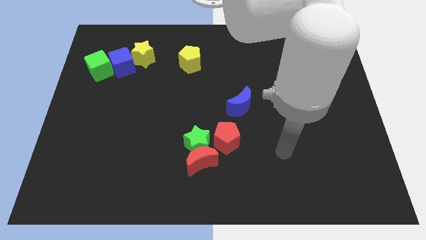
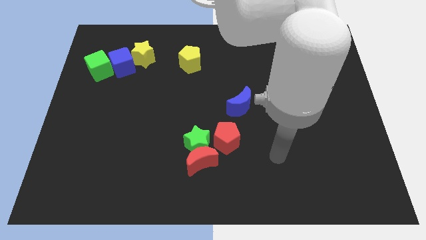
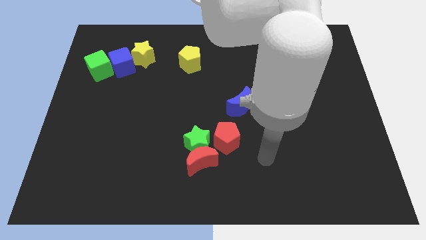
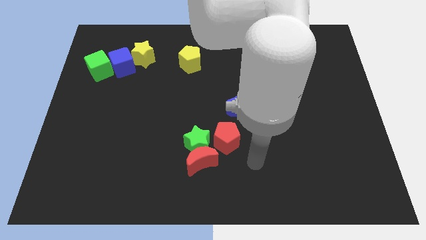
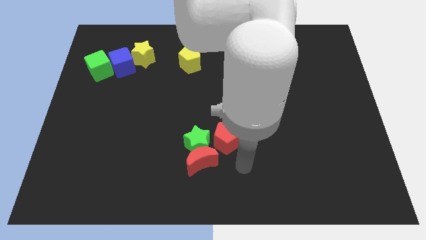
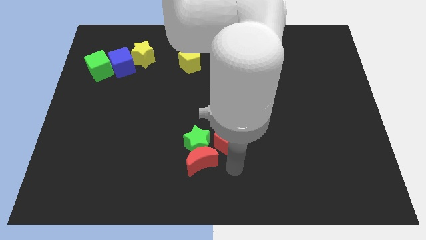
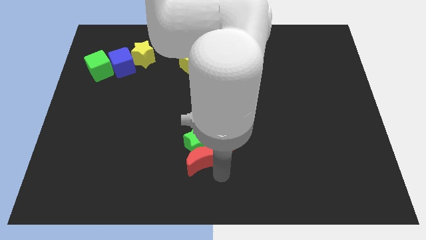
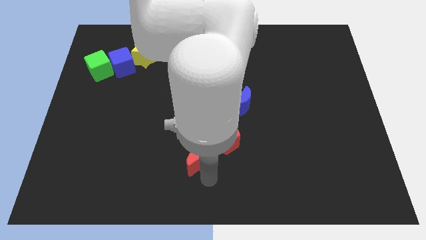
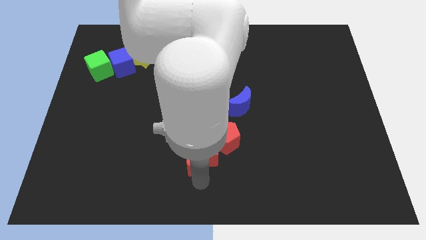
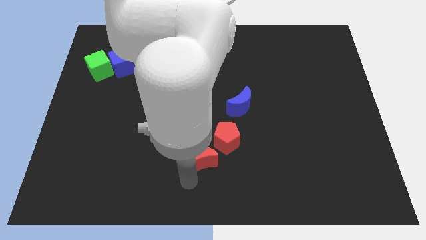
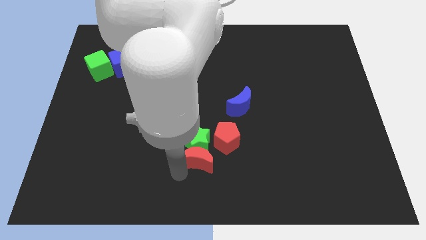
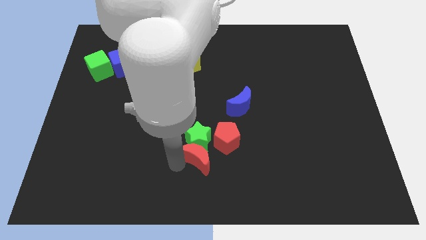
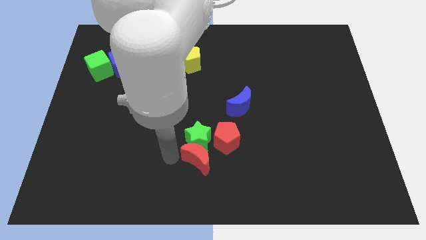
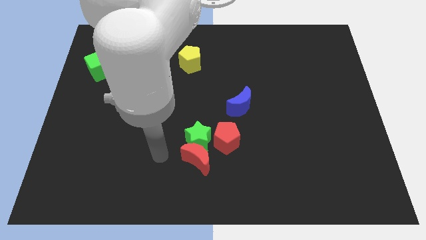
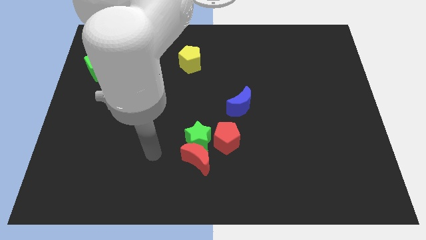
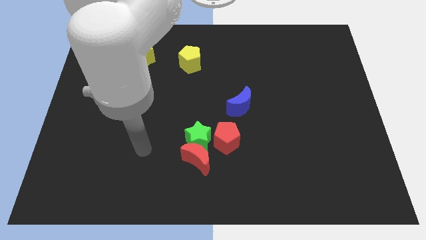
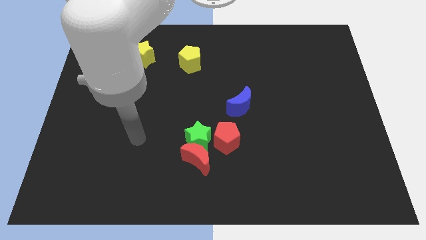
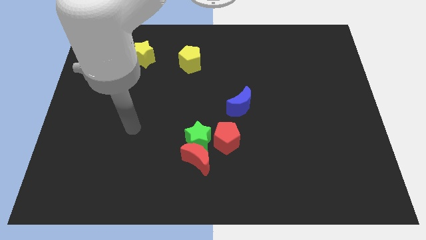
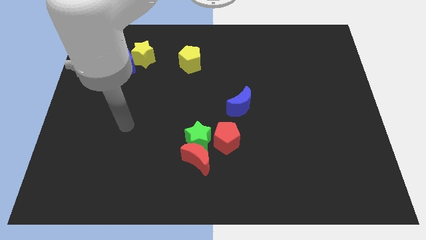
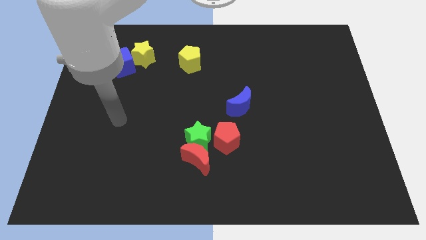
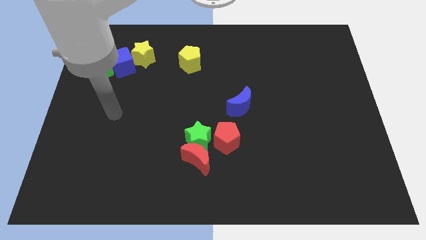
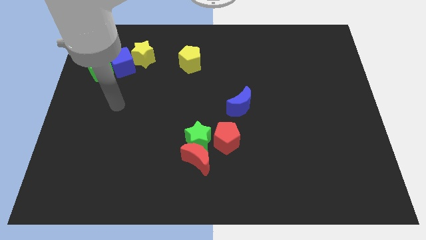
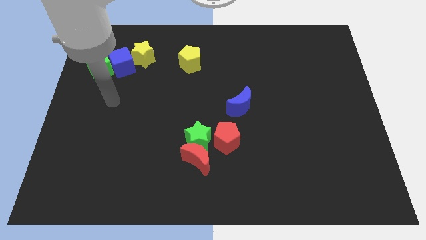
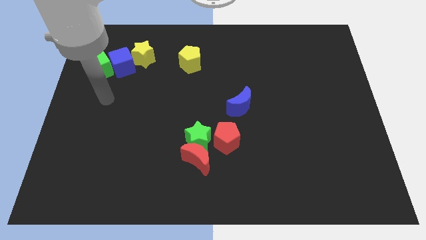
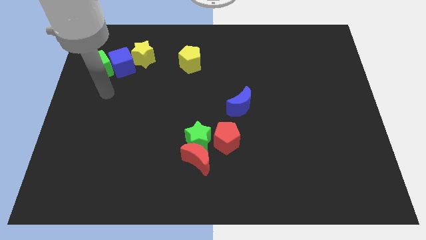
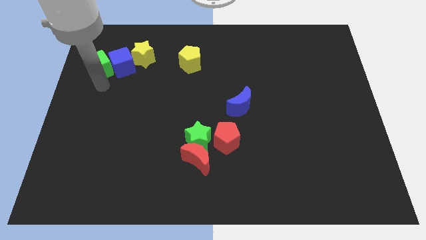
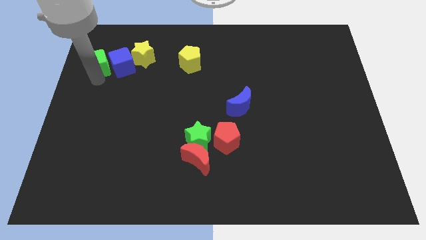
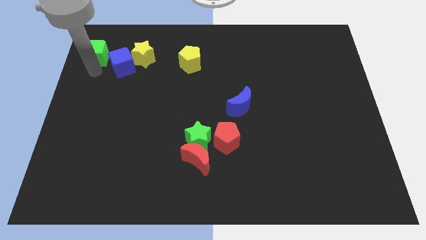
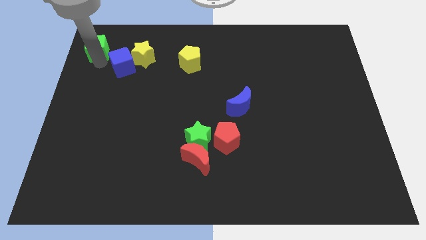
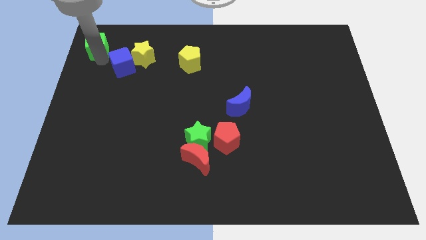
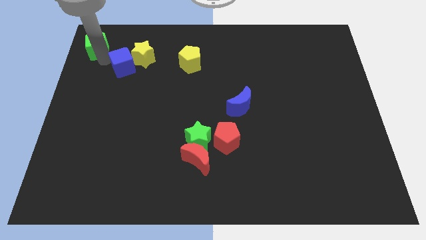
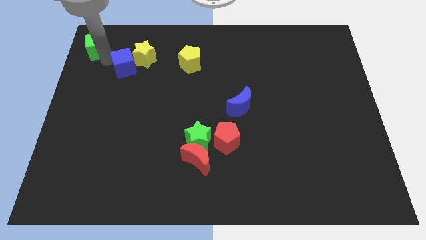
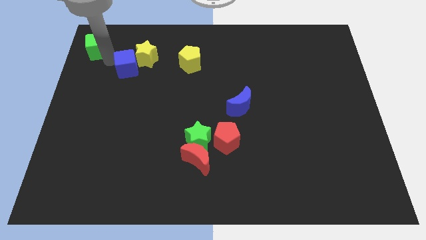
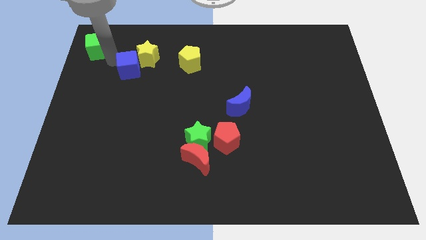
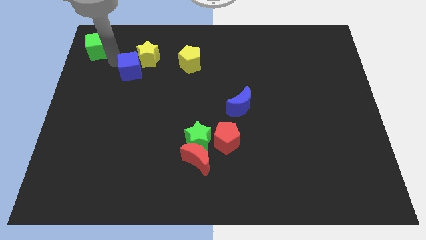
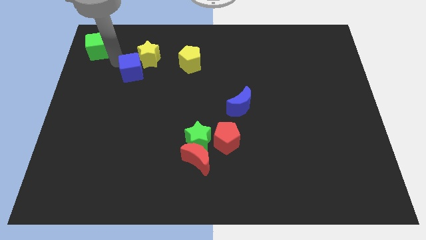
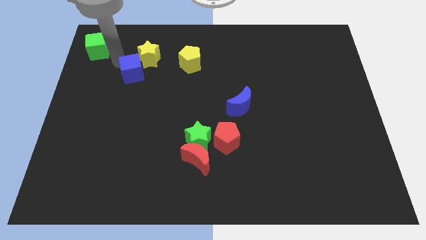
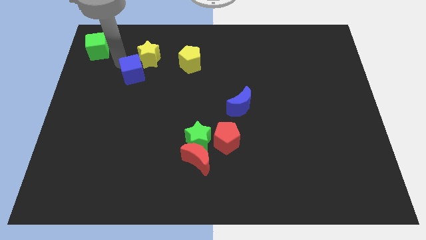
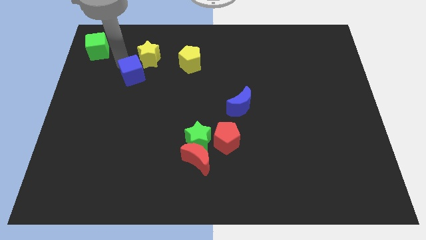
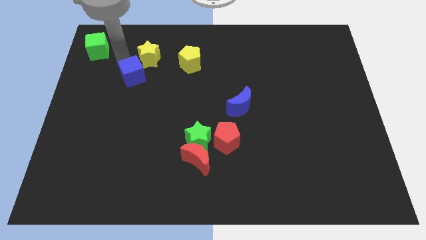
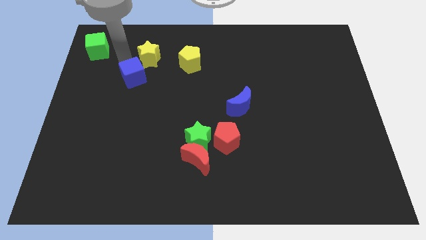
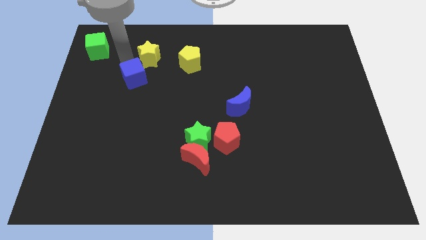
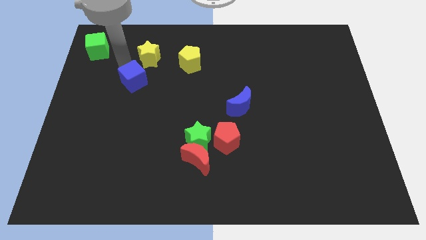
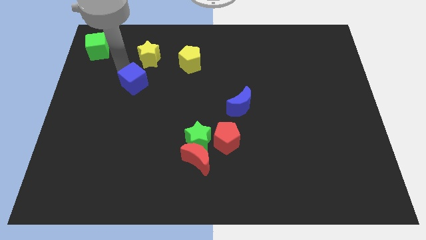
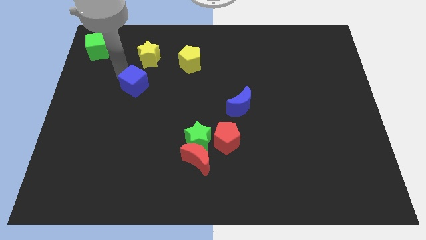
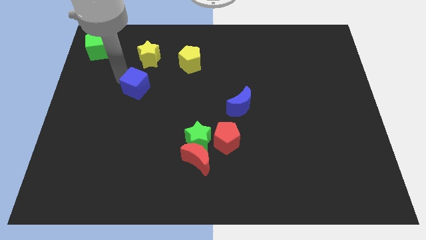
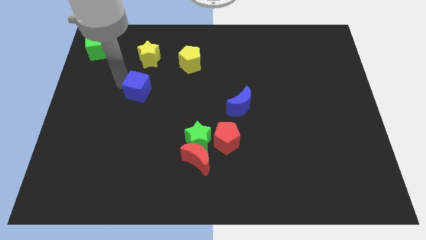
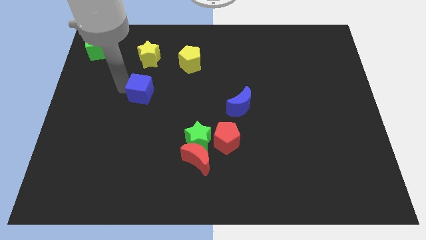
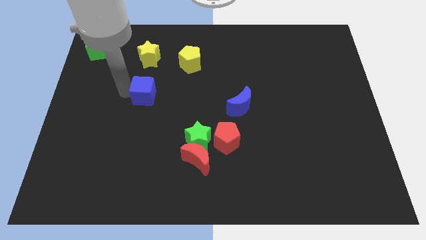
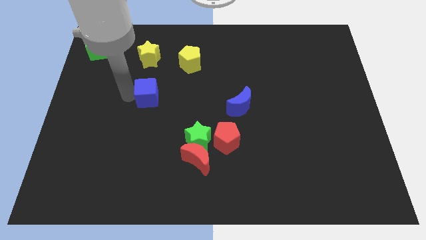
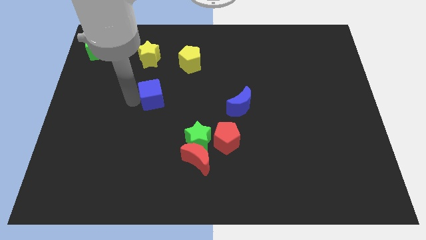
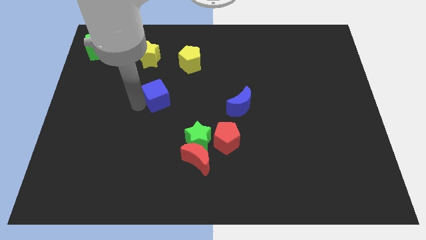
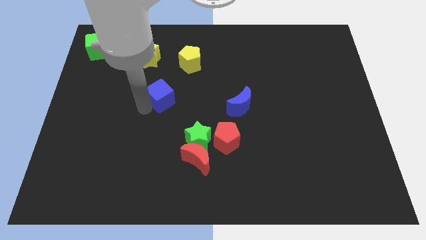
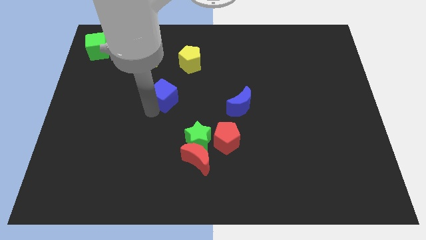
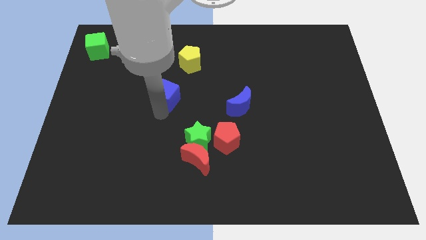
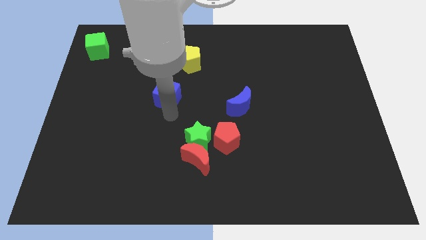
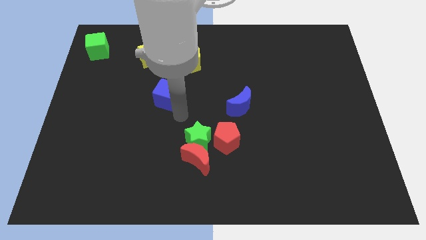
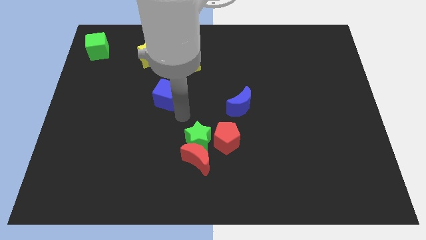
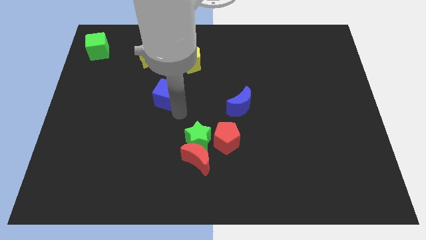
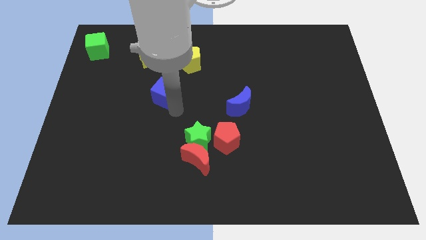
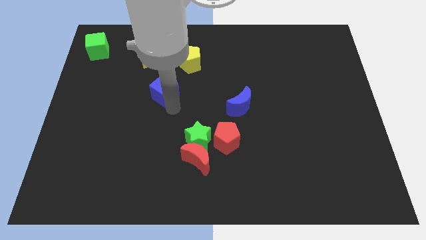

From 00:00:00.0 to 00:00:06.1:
slide the blue cube to the bottom left of the yellow pentagon

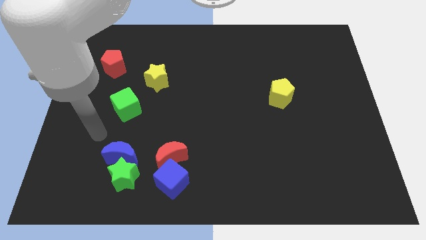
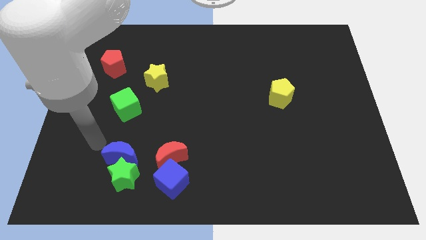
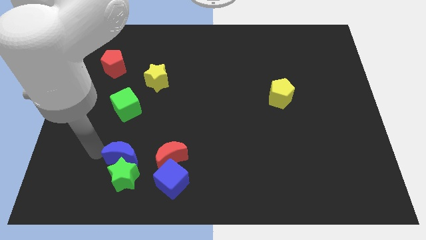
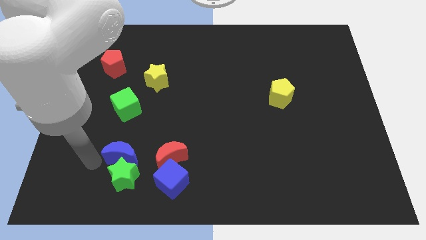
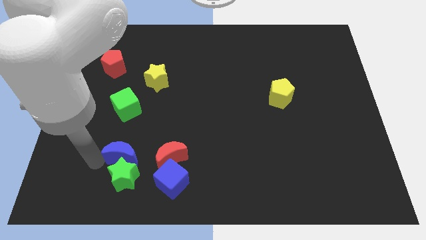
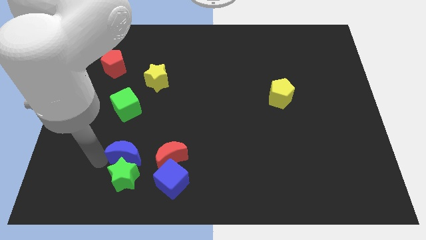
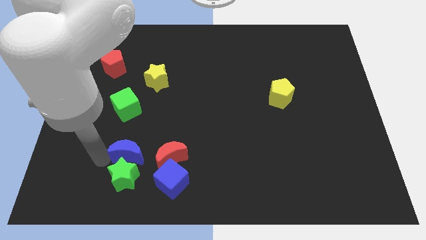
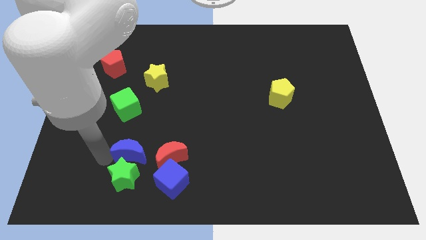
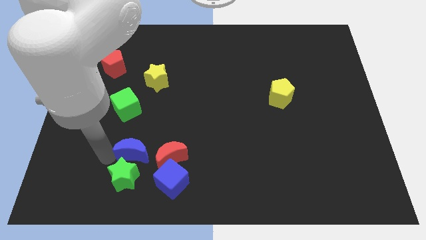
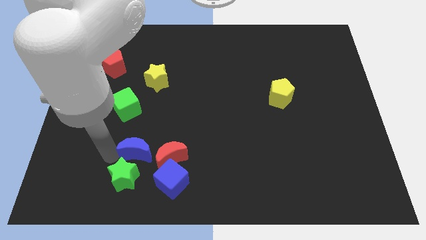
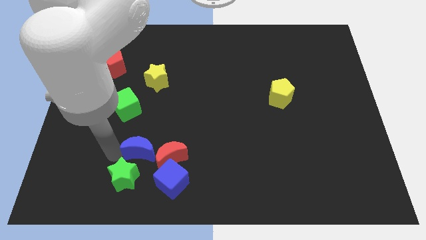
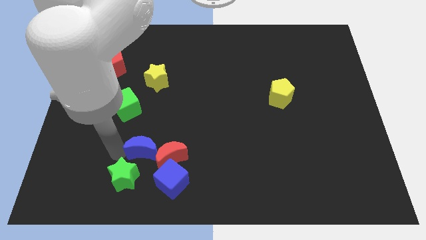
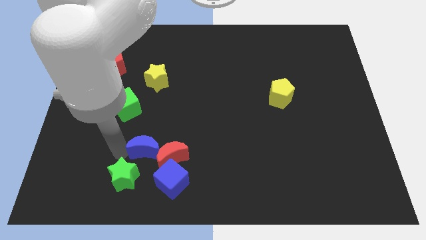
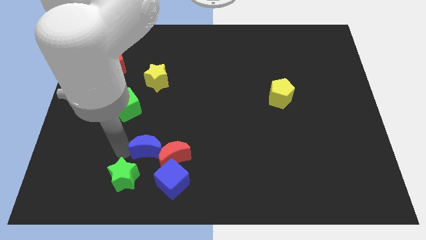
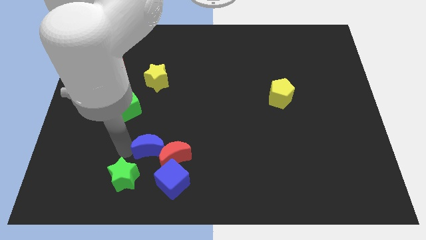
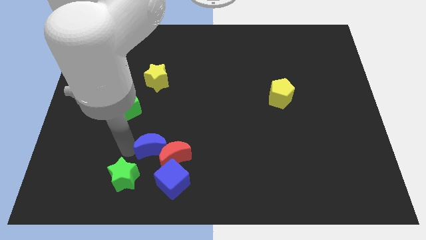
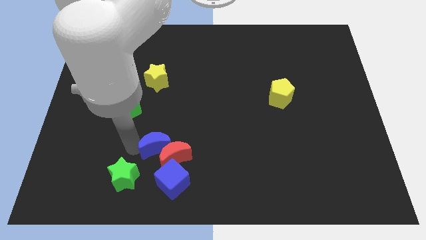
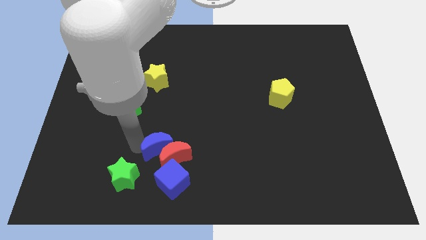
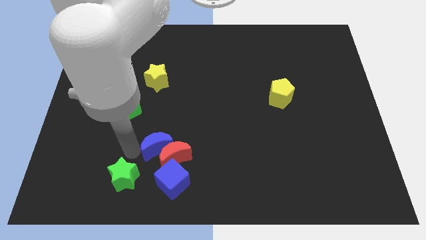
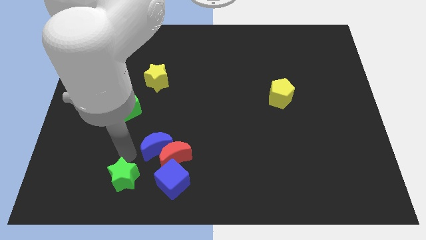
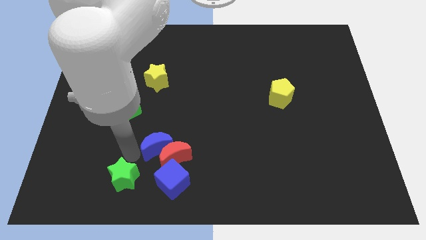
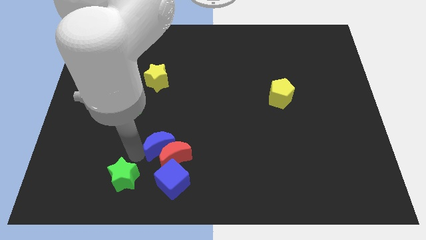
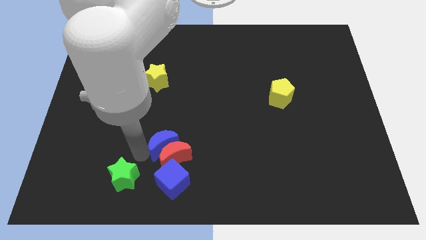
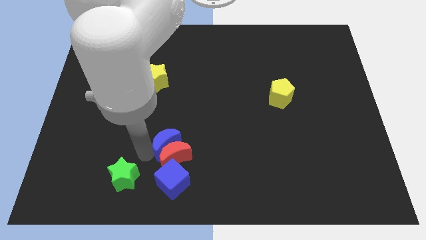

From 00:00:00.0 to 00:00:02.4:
move the blue moon diagonally up and to the right of the red moon
